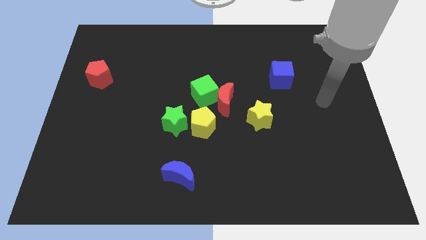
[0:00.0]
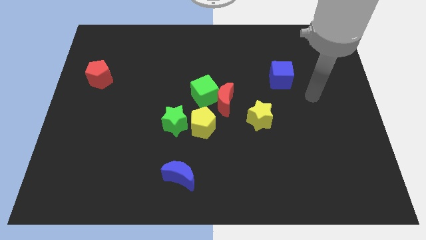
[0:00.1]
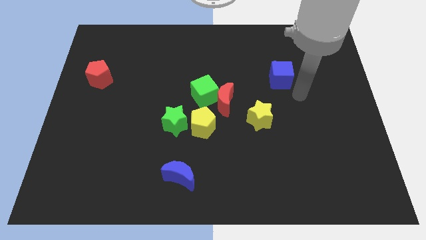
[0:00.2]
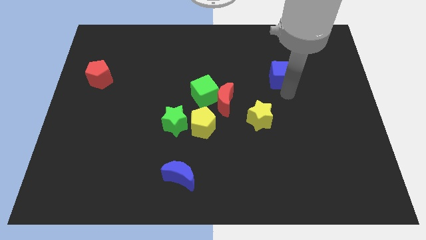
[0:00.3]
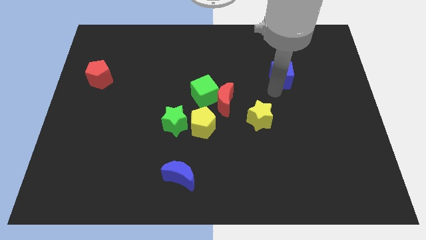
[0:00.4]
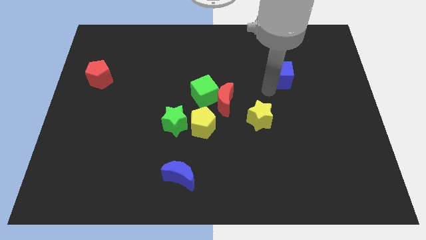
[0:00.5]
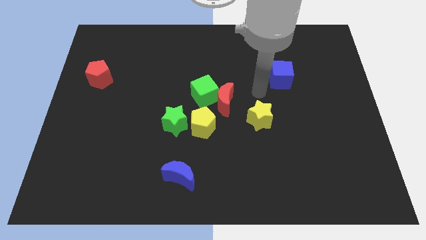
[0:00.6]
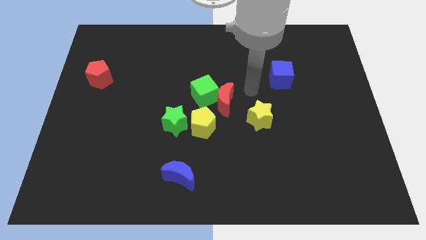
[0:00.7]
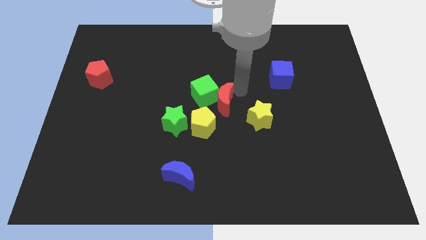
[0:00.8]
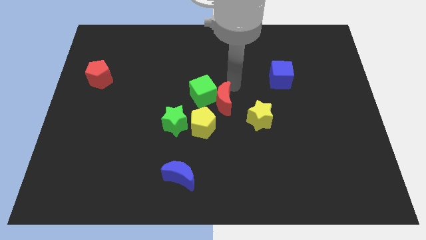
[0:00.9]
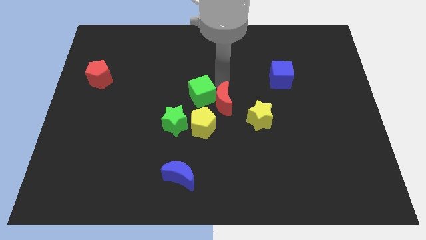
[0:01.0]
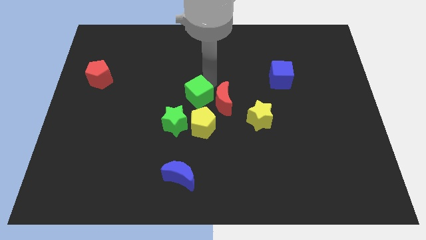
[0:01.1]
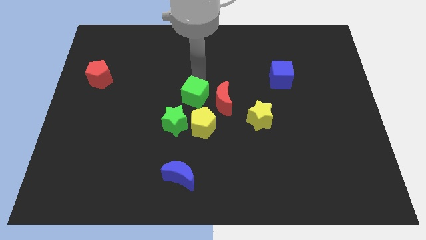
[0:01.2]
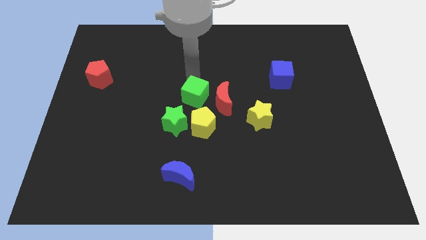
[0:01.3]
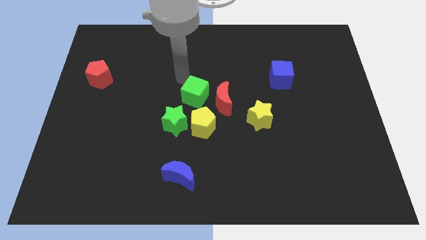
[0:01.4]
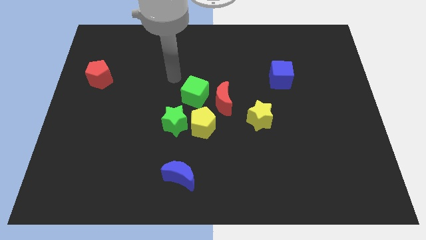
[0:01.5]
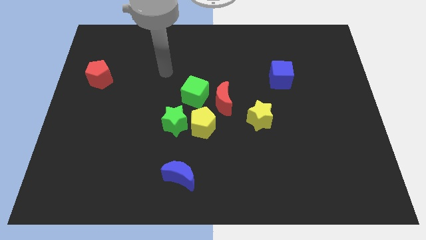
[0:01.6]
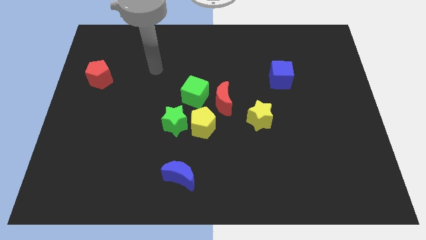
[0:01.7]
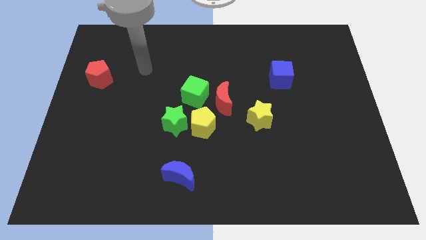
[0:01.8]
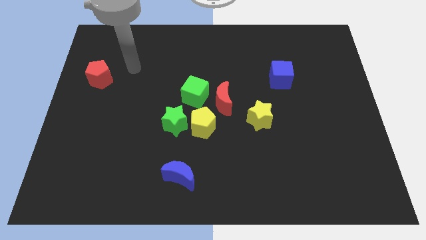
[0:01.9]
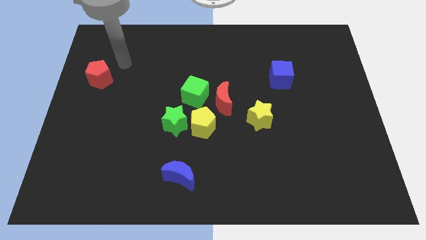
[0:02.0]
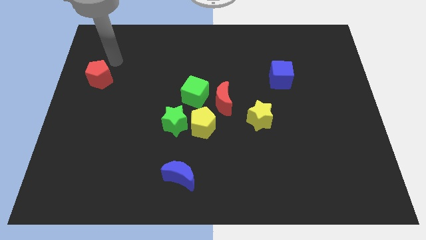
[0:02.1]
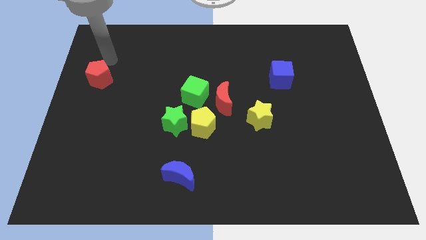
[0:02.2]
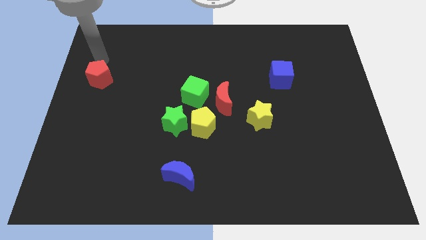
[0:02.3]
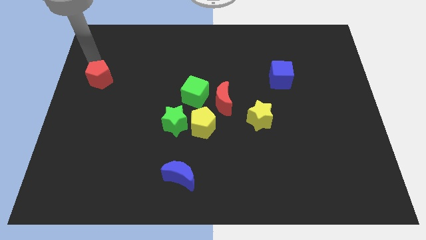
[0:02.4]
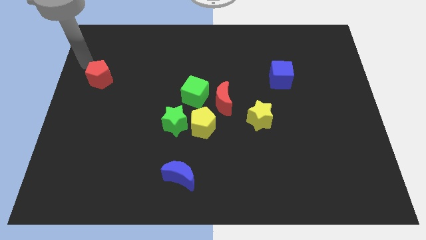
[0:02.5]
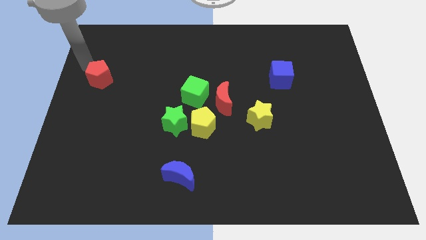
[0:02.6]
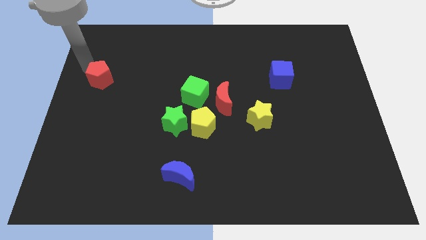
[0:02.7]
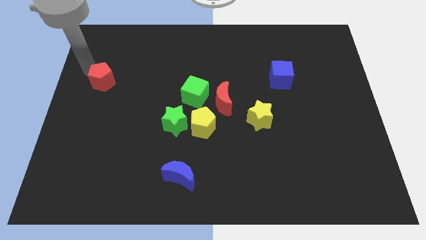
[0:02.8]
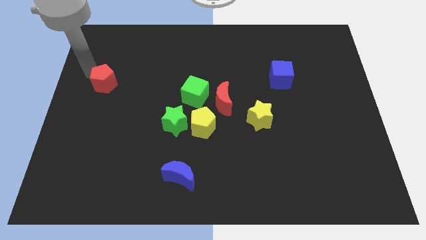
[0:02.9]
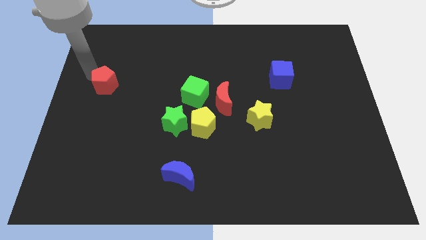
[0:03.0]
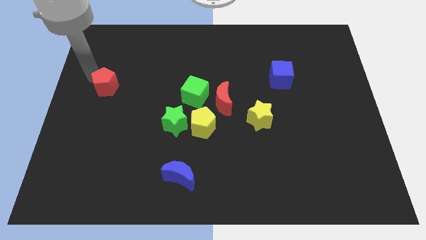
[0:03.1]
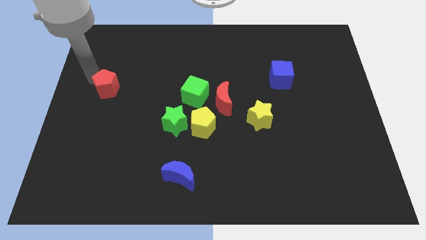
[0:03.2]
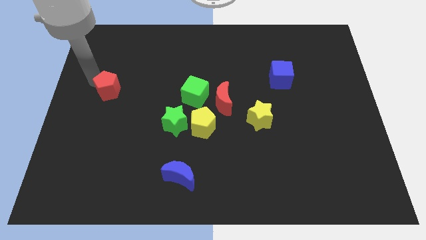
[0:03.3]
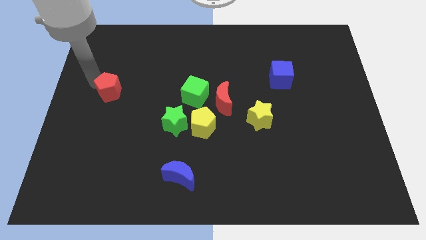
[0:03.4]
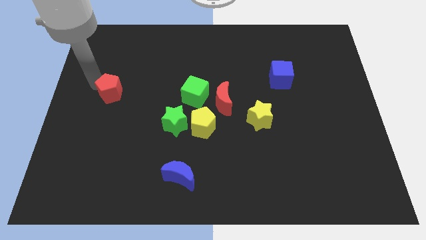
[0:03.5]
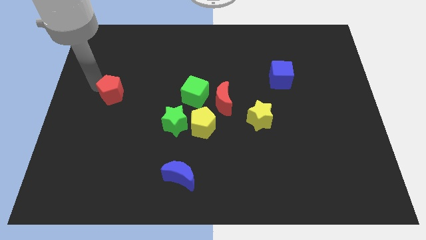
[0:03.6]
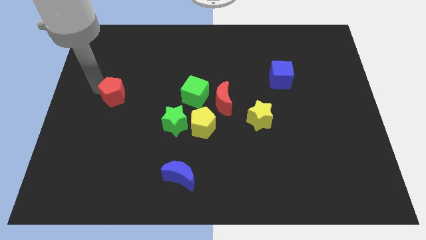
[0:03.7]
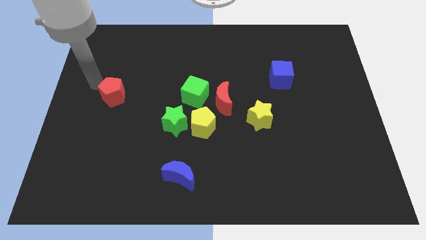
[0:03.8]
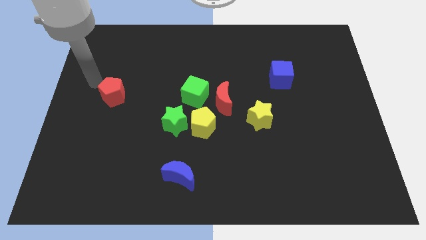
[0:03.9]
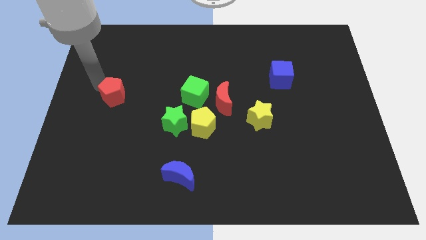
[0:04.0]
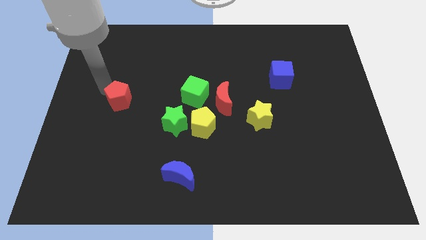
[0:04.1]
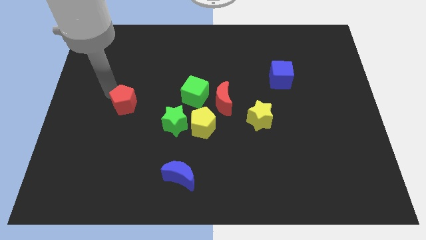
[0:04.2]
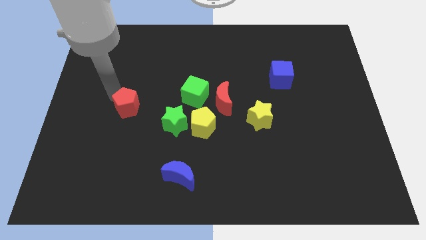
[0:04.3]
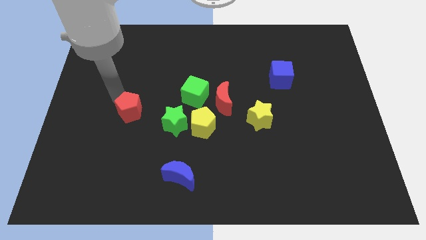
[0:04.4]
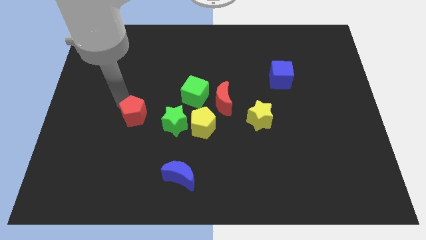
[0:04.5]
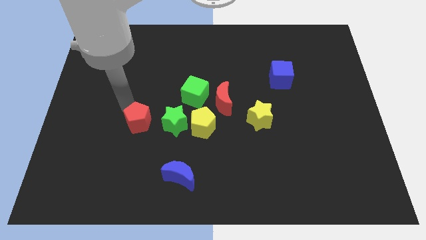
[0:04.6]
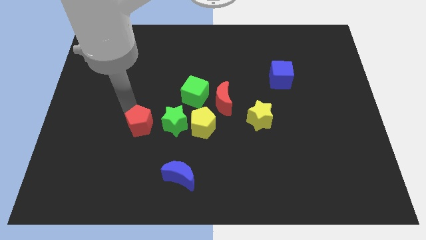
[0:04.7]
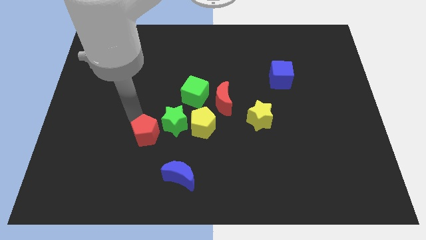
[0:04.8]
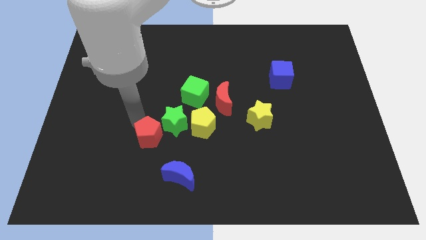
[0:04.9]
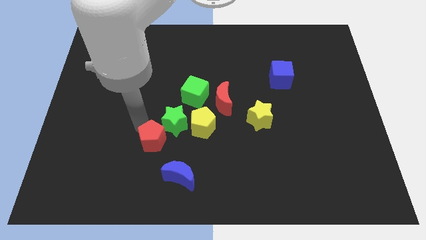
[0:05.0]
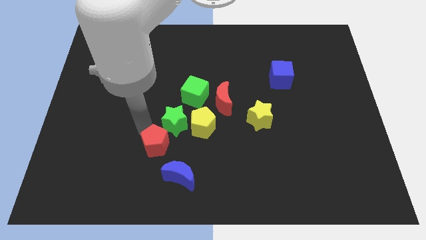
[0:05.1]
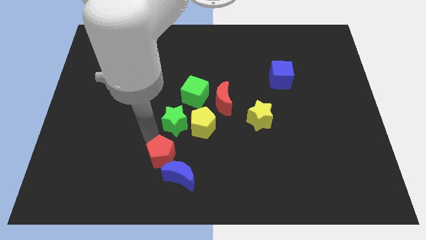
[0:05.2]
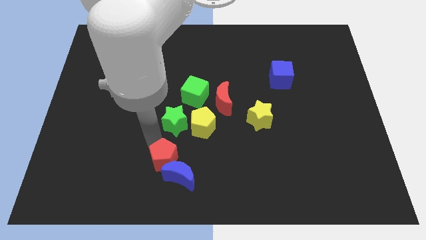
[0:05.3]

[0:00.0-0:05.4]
move the red pentagon towards the blue moon
